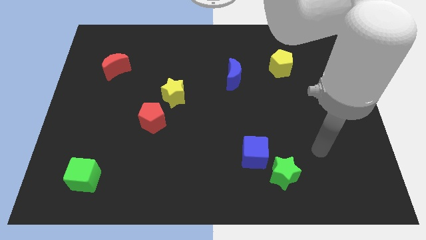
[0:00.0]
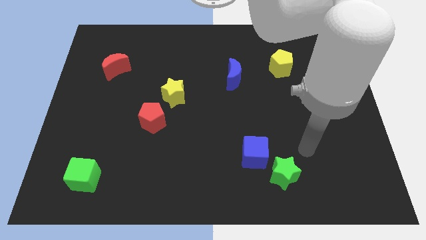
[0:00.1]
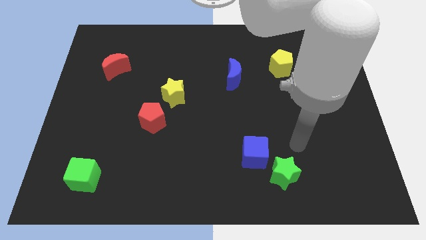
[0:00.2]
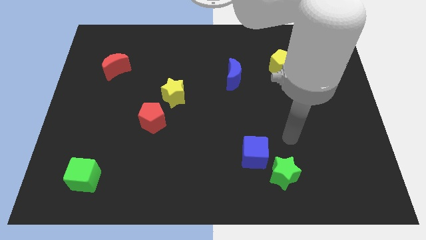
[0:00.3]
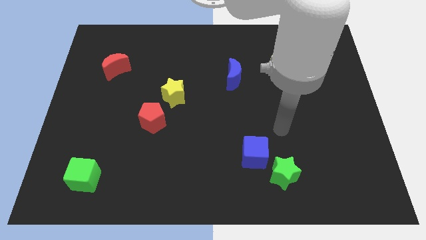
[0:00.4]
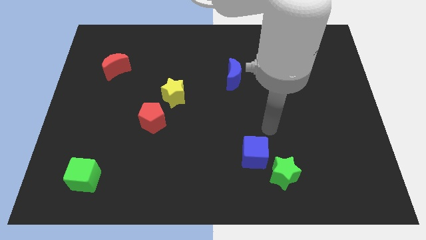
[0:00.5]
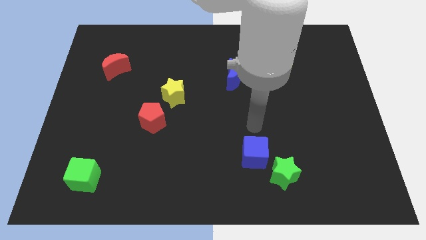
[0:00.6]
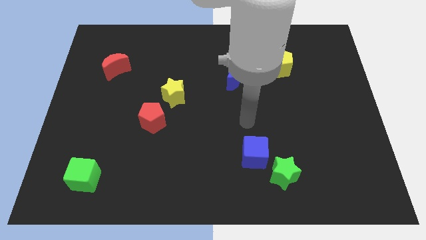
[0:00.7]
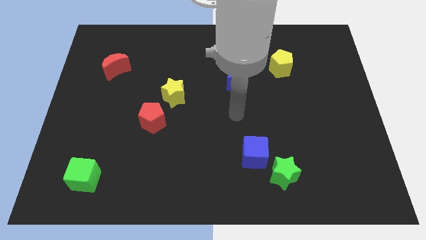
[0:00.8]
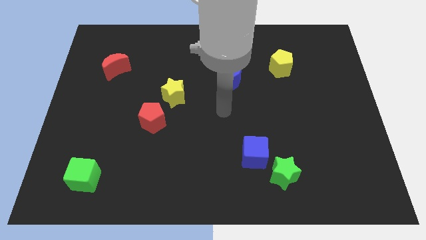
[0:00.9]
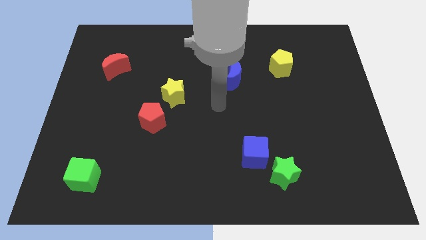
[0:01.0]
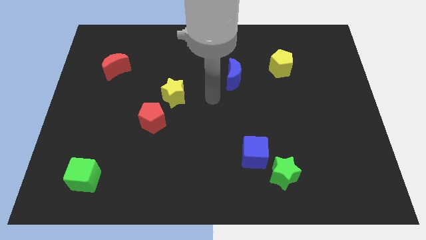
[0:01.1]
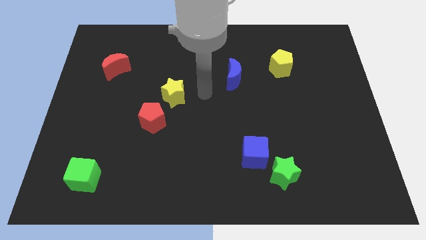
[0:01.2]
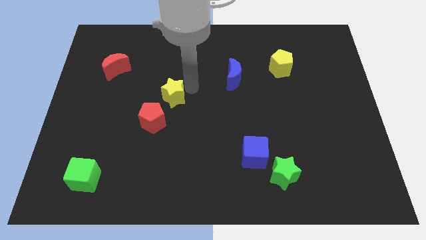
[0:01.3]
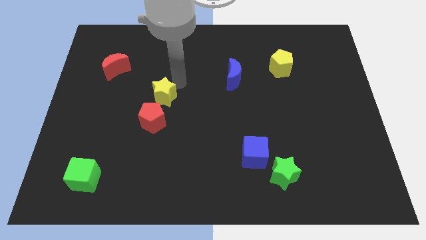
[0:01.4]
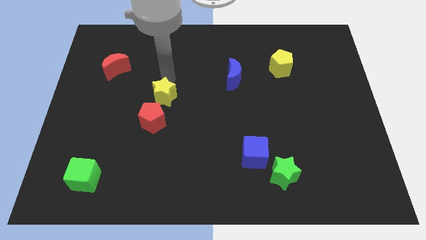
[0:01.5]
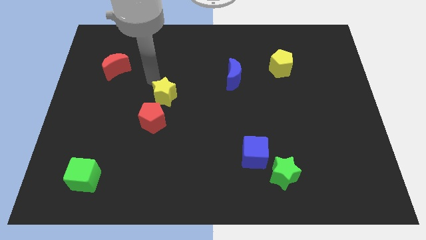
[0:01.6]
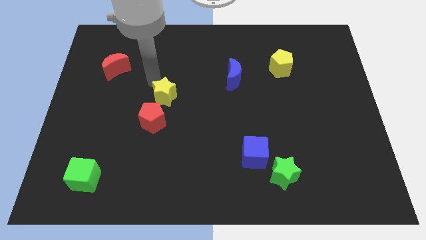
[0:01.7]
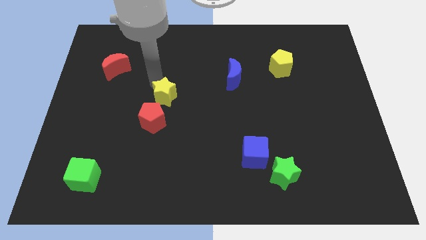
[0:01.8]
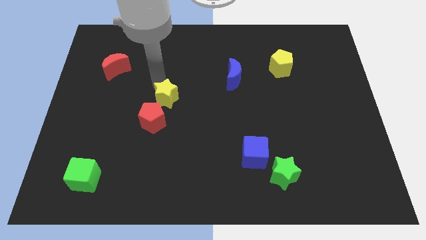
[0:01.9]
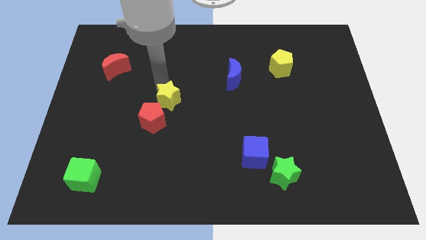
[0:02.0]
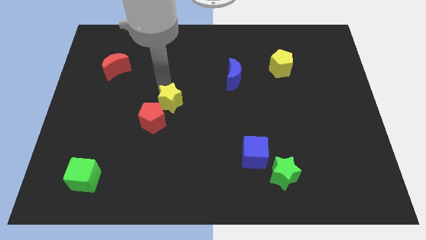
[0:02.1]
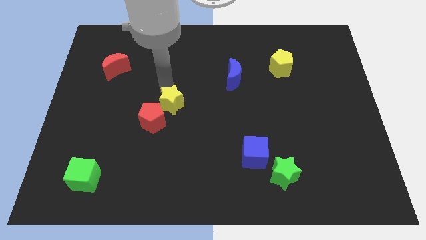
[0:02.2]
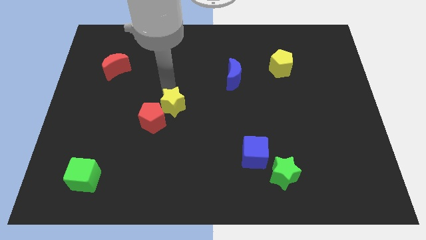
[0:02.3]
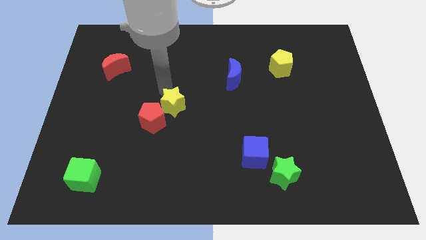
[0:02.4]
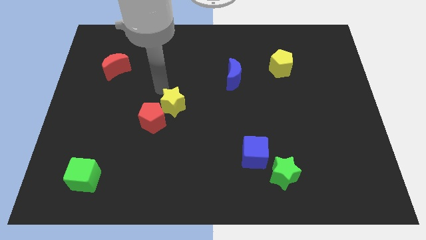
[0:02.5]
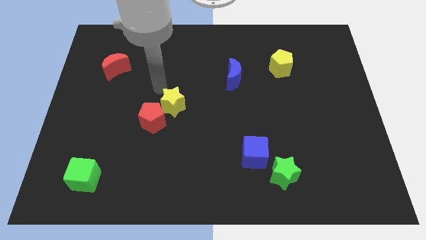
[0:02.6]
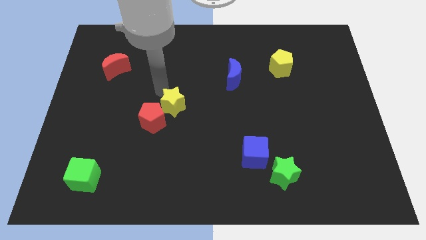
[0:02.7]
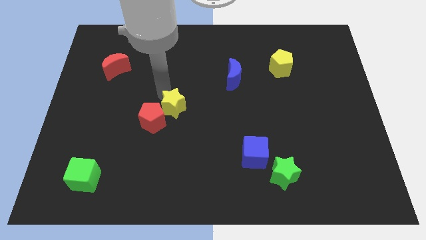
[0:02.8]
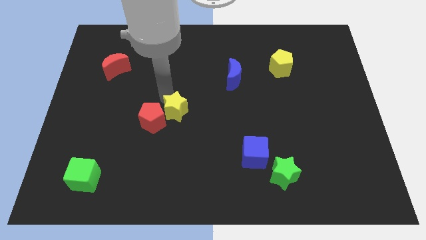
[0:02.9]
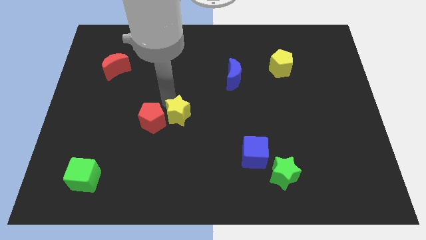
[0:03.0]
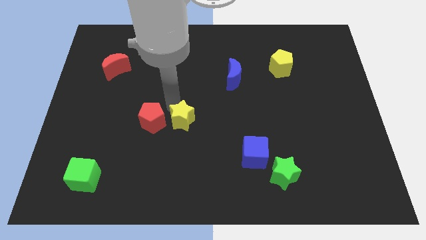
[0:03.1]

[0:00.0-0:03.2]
slightly push the yellow star down

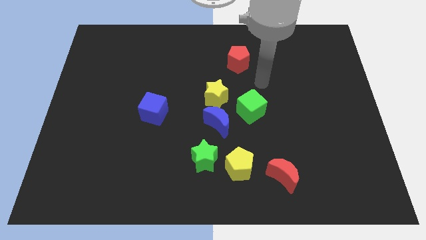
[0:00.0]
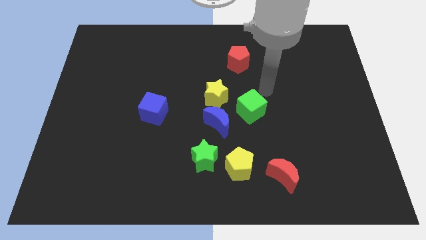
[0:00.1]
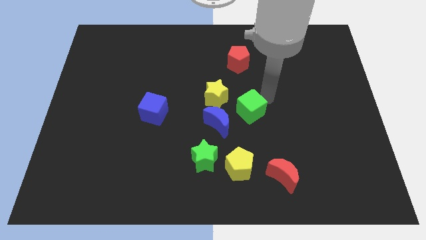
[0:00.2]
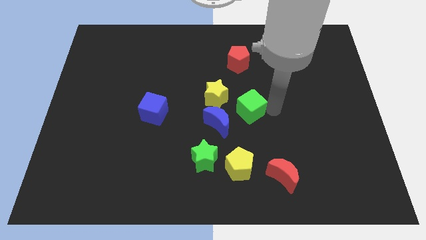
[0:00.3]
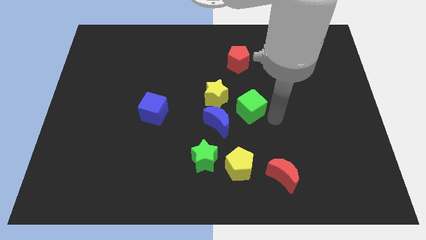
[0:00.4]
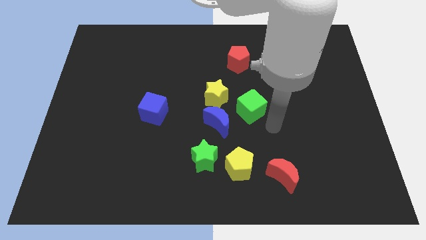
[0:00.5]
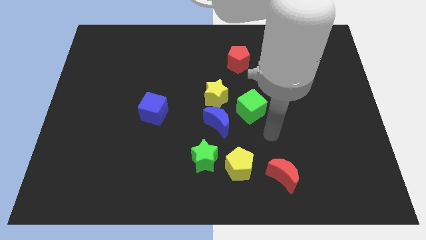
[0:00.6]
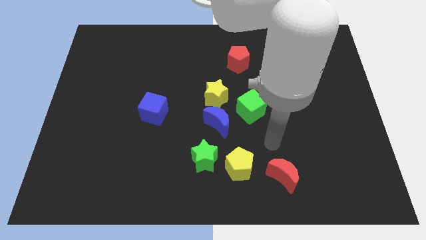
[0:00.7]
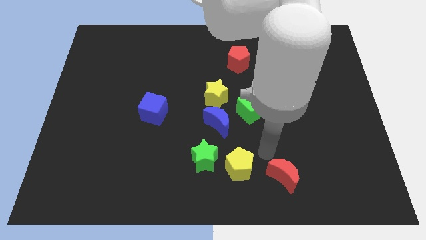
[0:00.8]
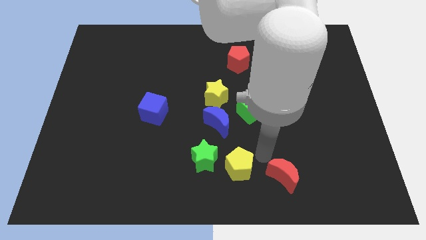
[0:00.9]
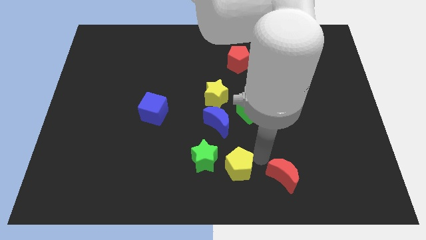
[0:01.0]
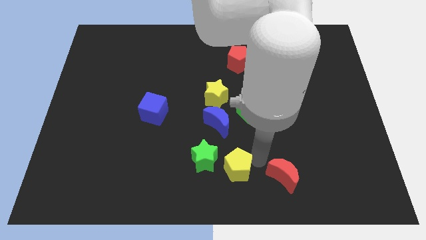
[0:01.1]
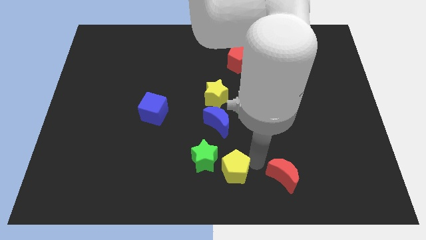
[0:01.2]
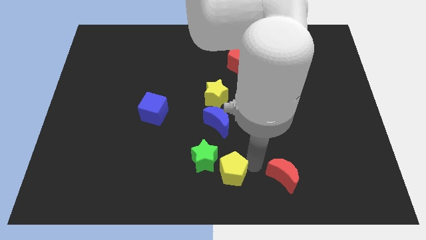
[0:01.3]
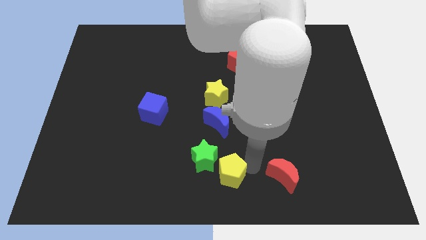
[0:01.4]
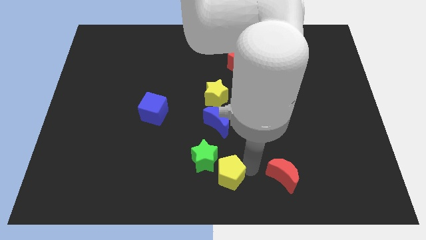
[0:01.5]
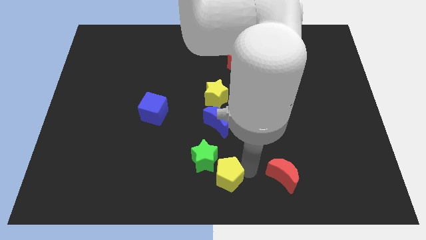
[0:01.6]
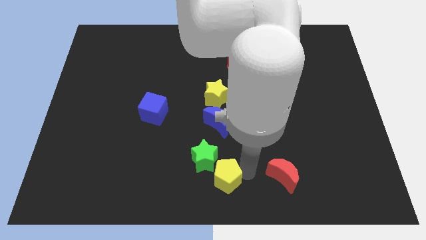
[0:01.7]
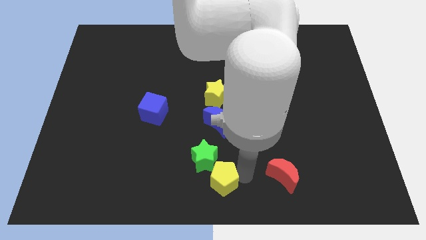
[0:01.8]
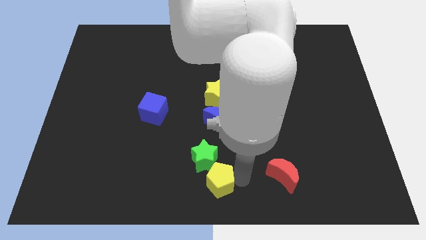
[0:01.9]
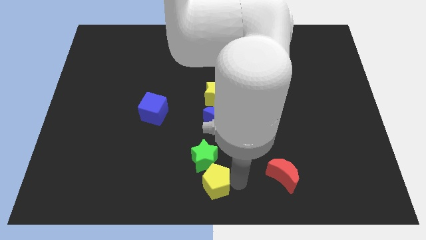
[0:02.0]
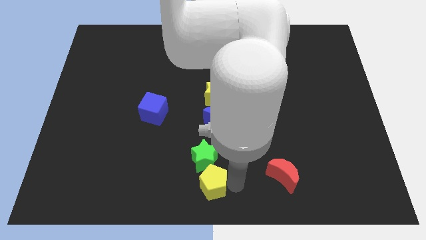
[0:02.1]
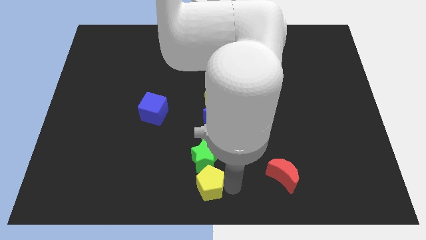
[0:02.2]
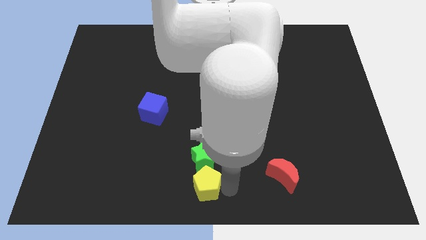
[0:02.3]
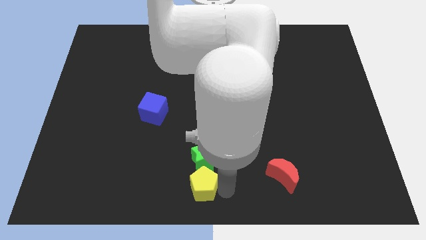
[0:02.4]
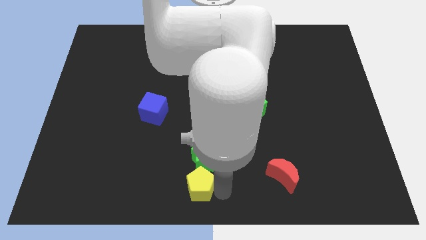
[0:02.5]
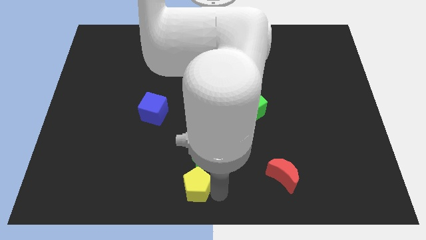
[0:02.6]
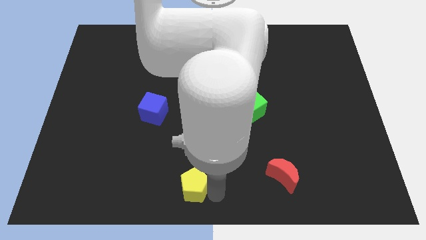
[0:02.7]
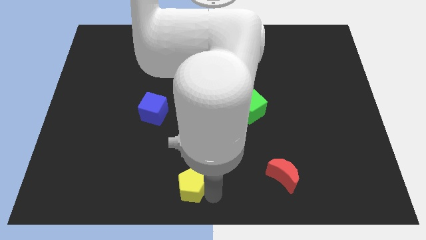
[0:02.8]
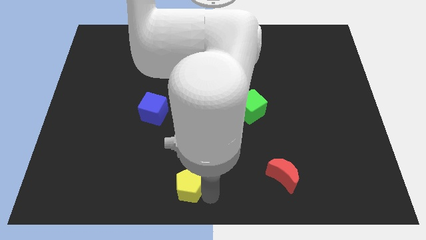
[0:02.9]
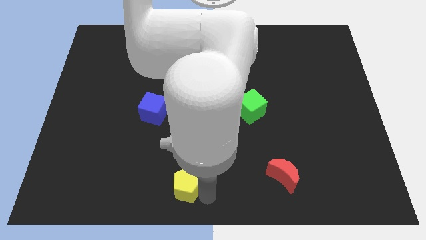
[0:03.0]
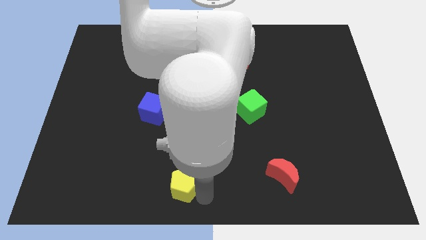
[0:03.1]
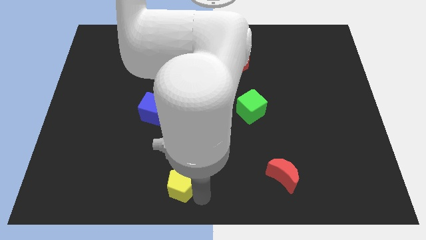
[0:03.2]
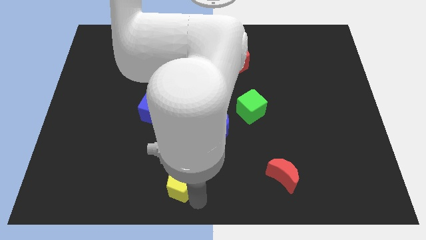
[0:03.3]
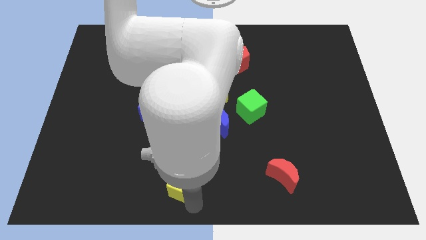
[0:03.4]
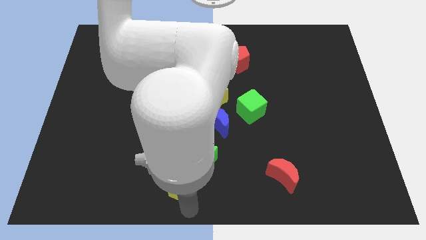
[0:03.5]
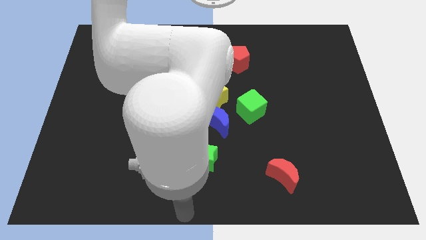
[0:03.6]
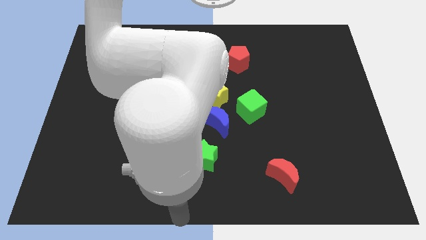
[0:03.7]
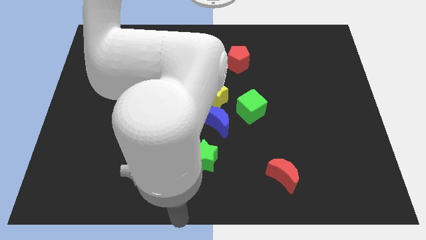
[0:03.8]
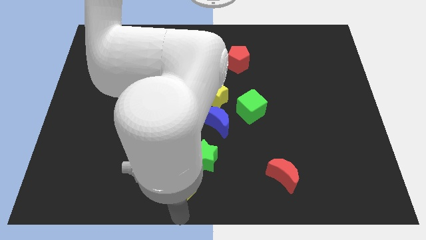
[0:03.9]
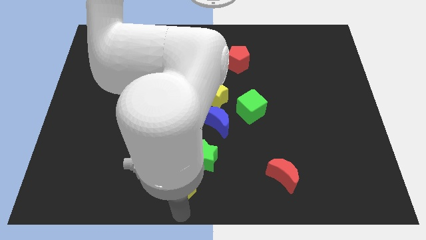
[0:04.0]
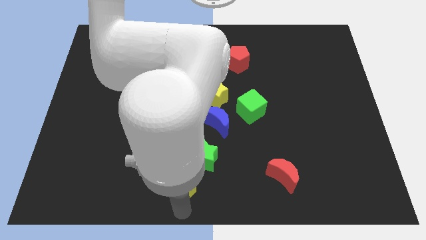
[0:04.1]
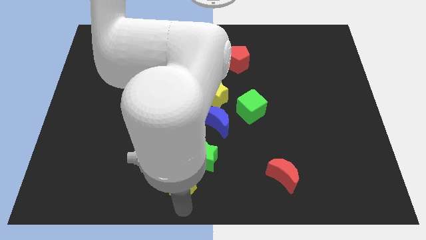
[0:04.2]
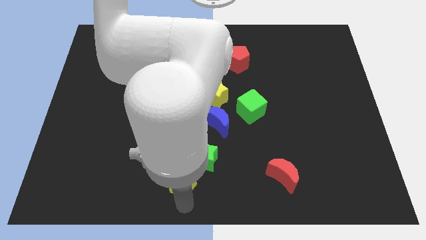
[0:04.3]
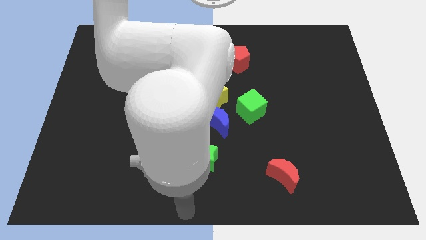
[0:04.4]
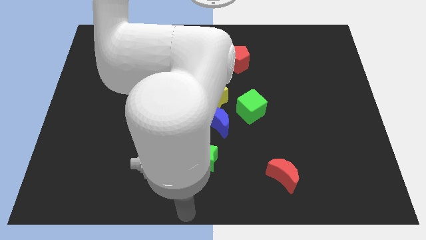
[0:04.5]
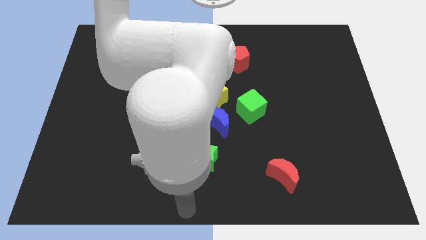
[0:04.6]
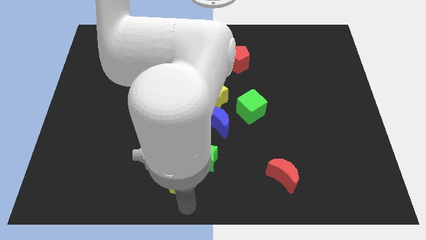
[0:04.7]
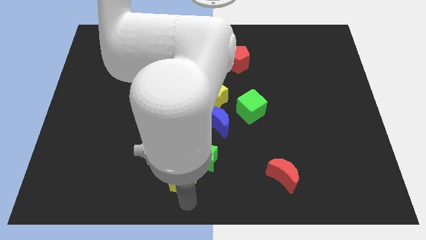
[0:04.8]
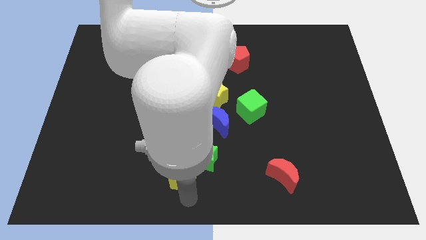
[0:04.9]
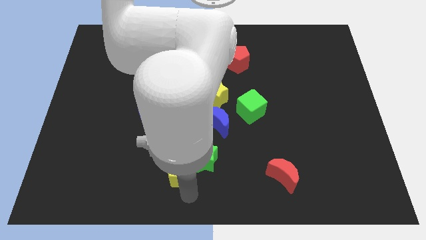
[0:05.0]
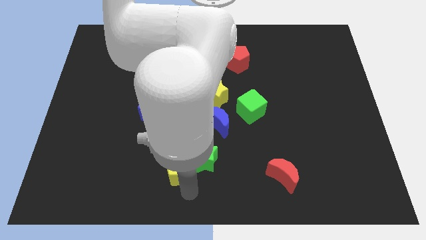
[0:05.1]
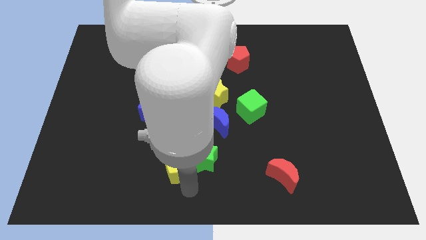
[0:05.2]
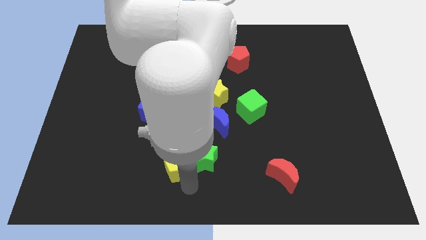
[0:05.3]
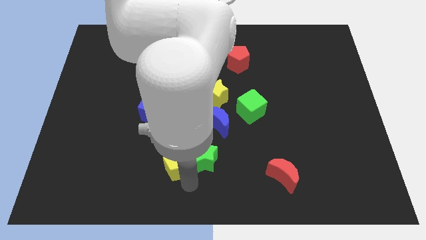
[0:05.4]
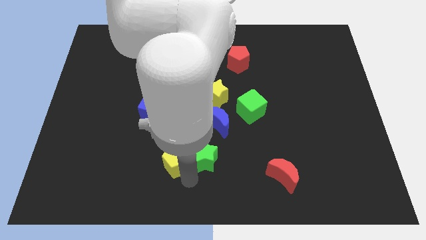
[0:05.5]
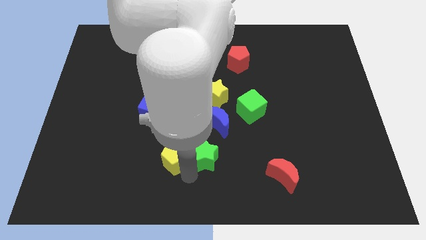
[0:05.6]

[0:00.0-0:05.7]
move the yellow pentagon upwards and left diagonally slightly
